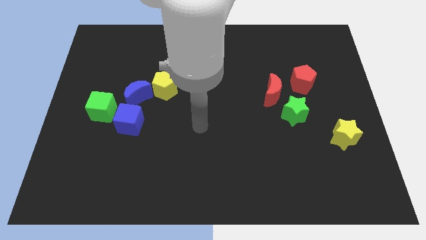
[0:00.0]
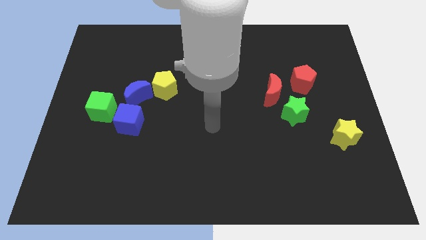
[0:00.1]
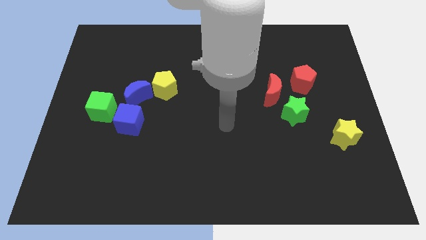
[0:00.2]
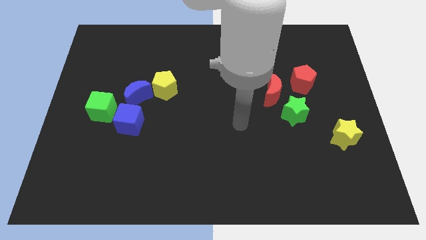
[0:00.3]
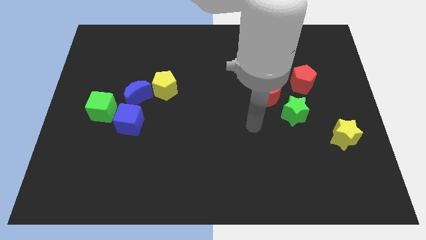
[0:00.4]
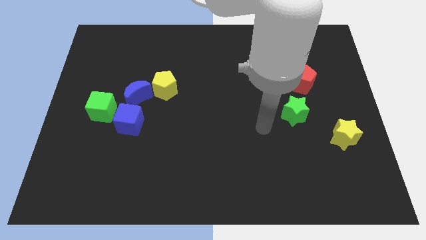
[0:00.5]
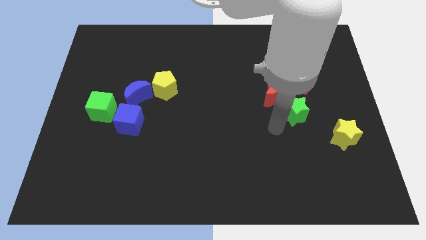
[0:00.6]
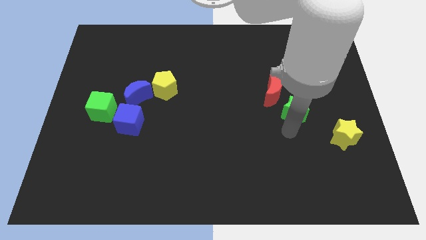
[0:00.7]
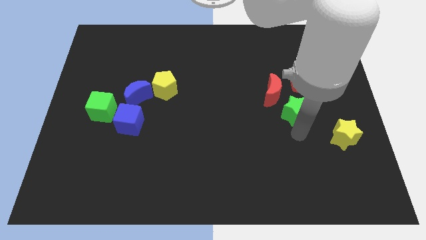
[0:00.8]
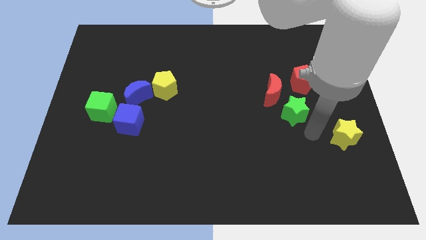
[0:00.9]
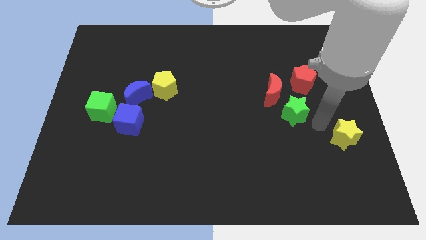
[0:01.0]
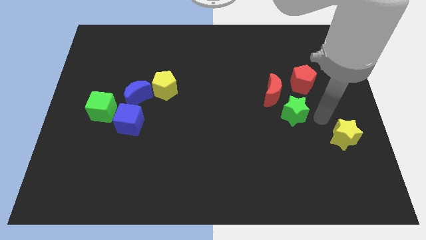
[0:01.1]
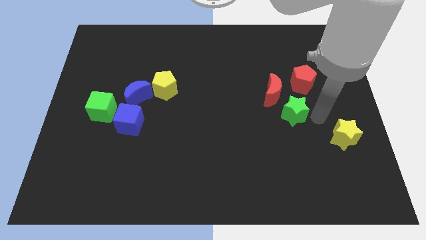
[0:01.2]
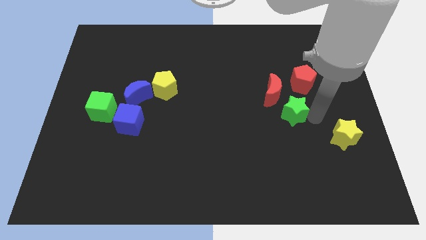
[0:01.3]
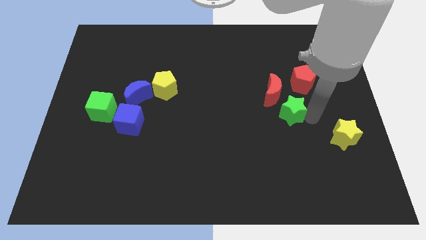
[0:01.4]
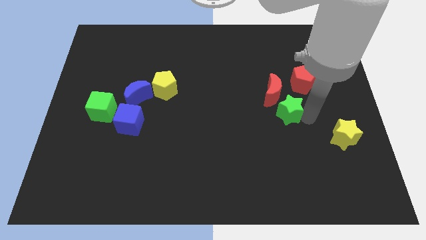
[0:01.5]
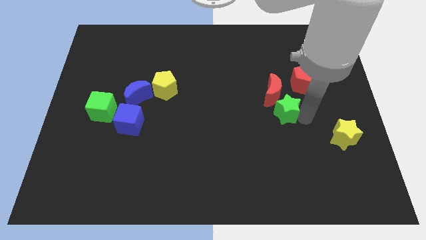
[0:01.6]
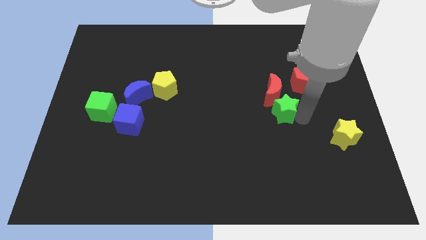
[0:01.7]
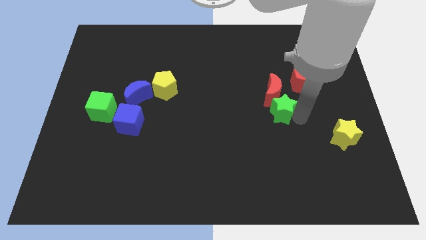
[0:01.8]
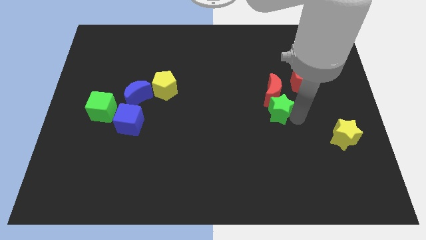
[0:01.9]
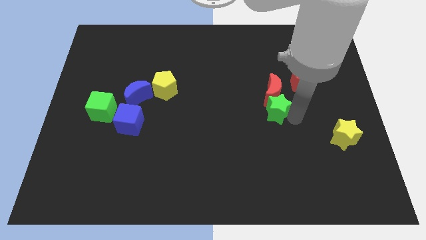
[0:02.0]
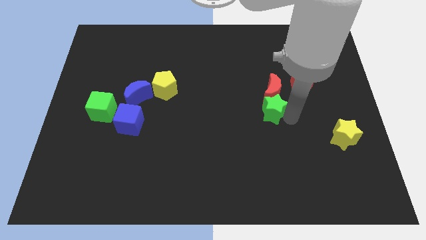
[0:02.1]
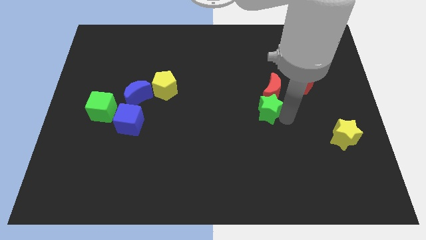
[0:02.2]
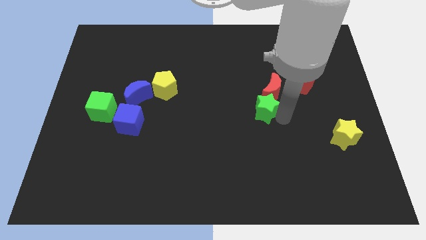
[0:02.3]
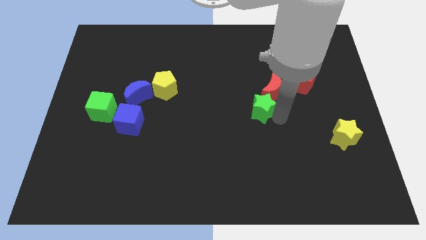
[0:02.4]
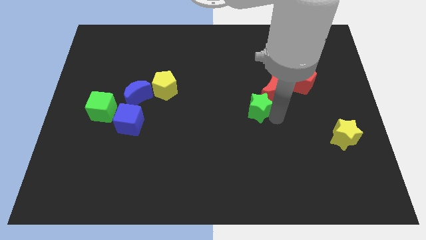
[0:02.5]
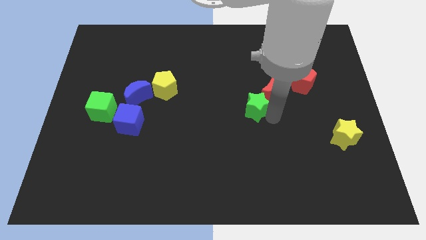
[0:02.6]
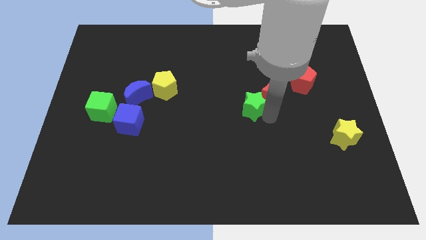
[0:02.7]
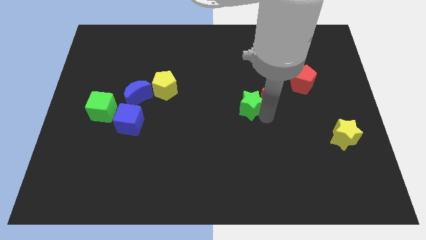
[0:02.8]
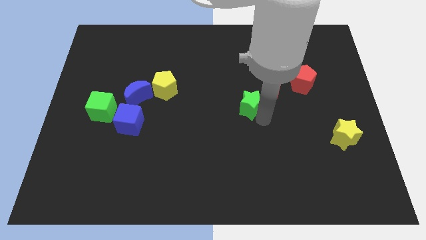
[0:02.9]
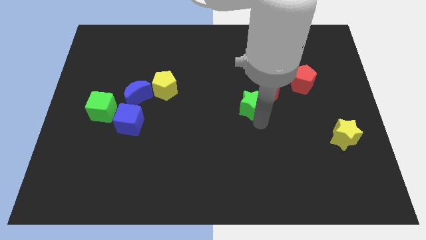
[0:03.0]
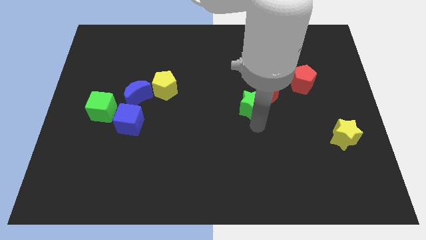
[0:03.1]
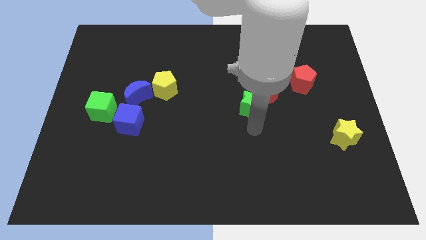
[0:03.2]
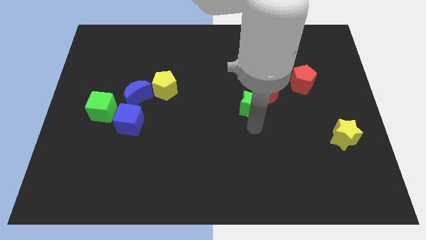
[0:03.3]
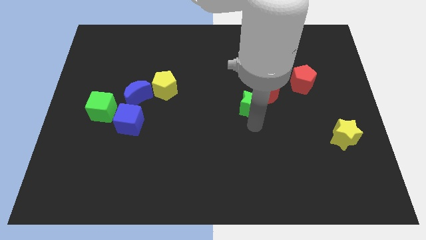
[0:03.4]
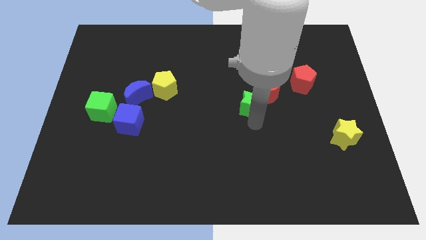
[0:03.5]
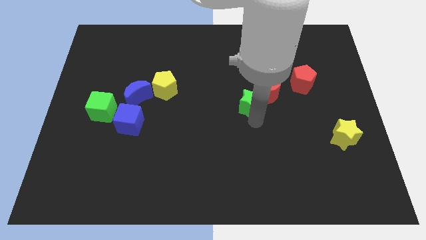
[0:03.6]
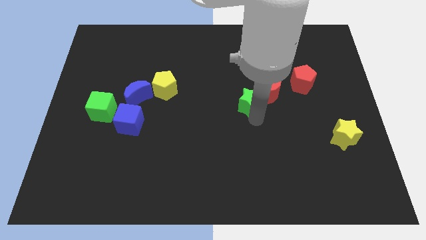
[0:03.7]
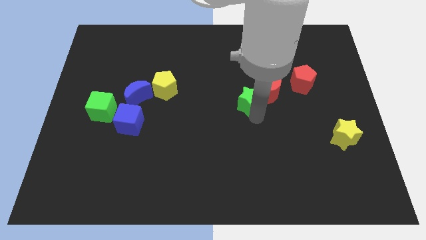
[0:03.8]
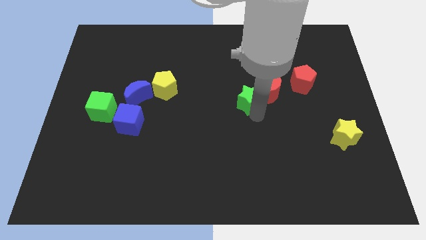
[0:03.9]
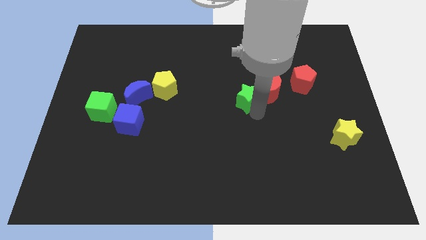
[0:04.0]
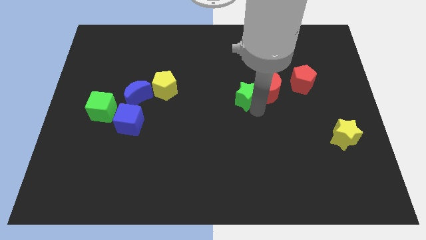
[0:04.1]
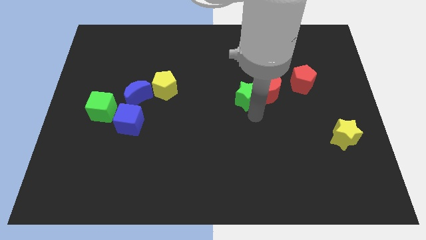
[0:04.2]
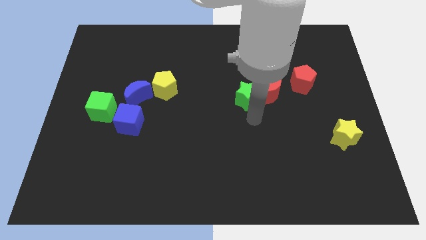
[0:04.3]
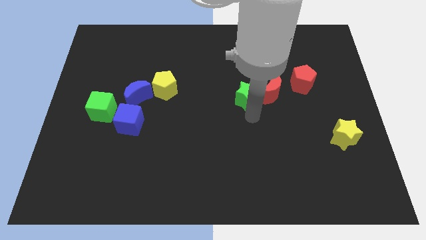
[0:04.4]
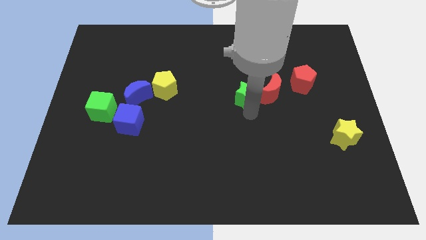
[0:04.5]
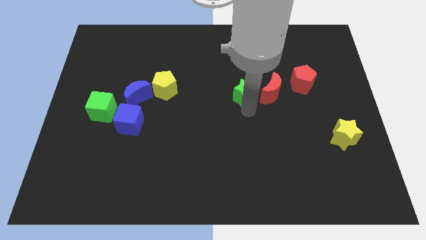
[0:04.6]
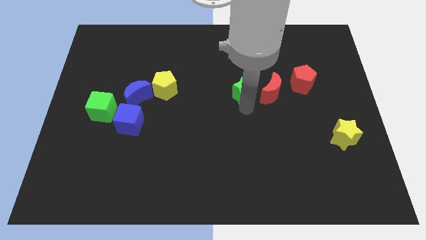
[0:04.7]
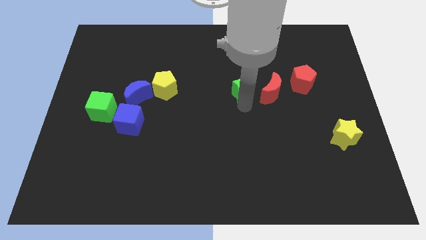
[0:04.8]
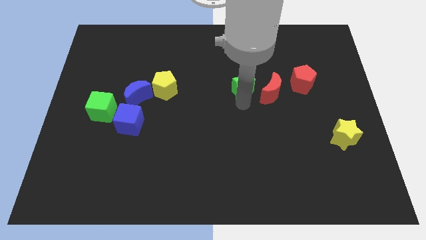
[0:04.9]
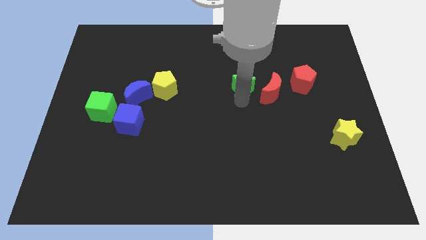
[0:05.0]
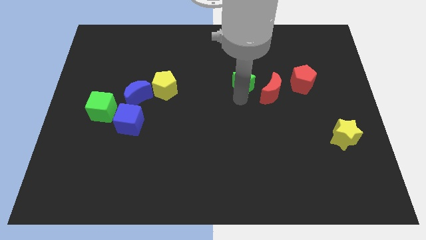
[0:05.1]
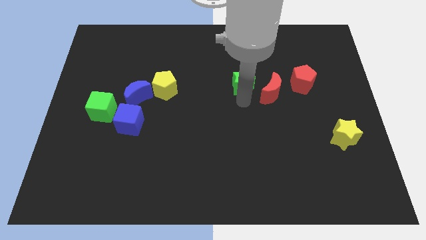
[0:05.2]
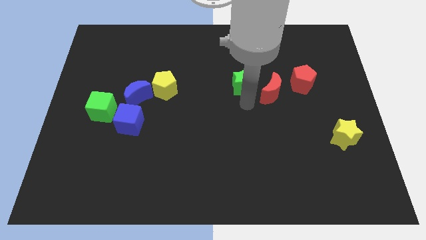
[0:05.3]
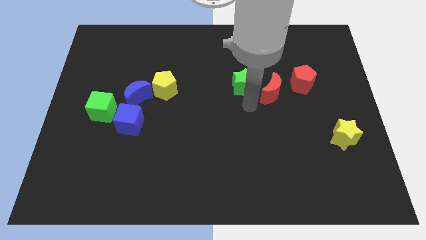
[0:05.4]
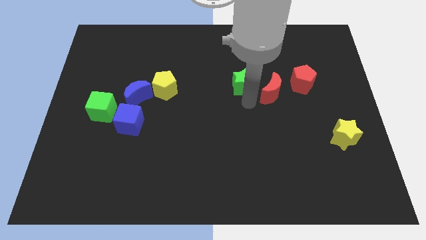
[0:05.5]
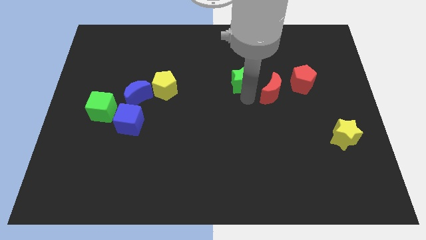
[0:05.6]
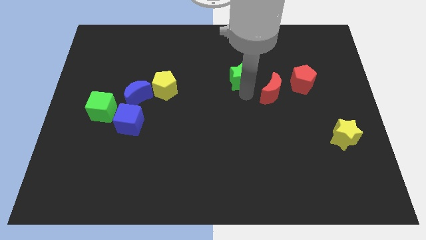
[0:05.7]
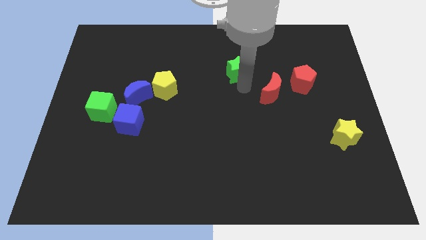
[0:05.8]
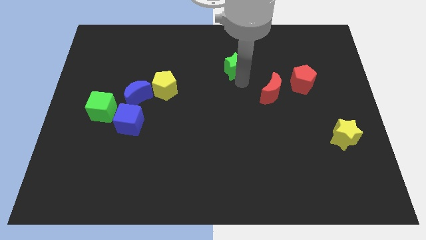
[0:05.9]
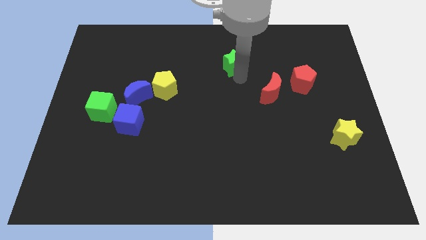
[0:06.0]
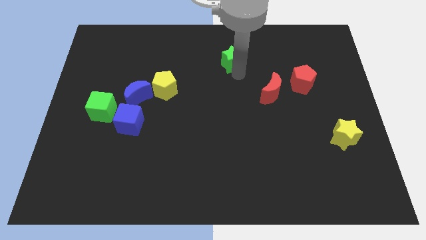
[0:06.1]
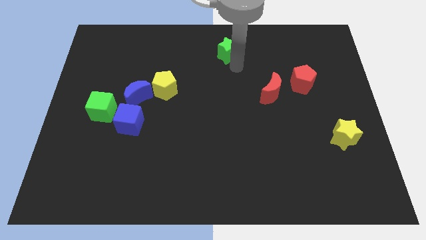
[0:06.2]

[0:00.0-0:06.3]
slide the green star to the top
